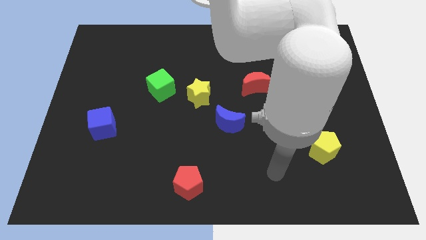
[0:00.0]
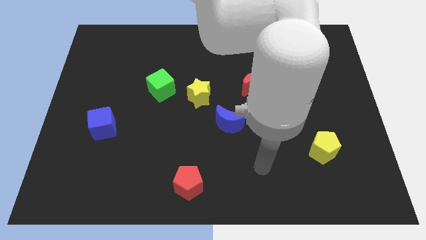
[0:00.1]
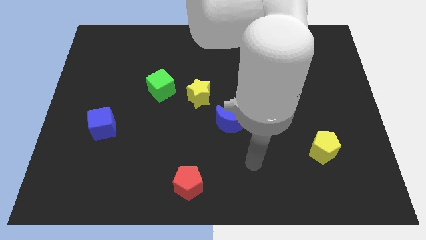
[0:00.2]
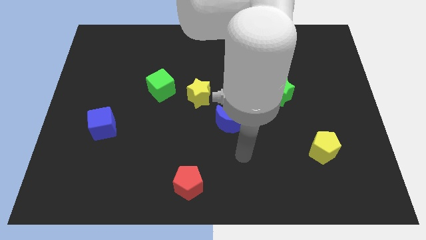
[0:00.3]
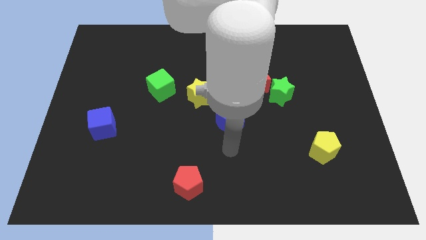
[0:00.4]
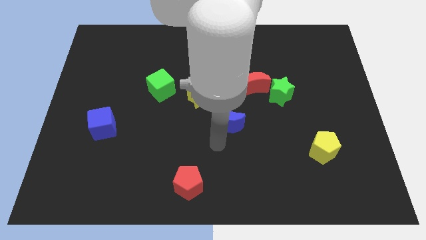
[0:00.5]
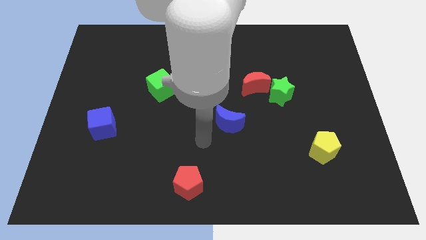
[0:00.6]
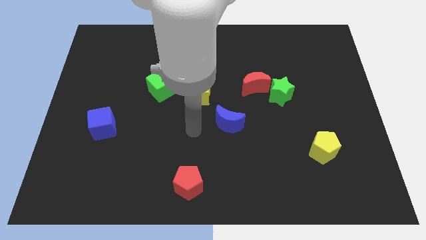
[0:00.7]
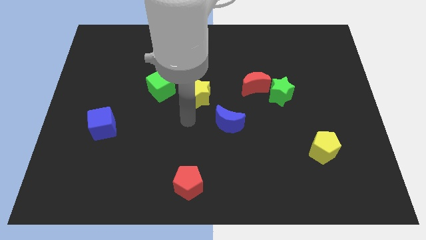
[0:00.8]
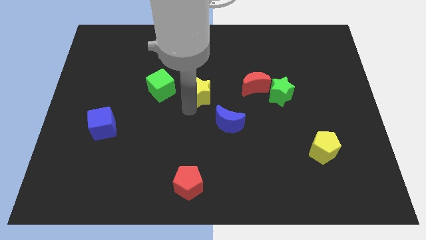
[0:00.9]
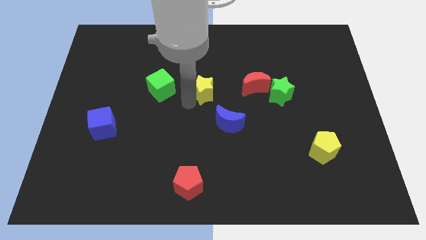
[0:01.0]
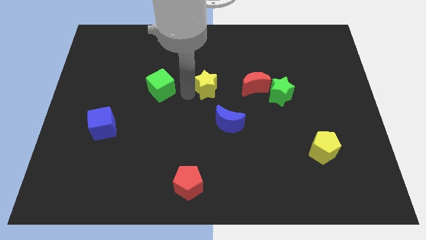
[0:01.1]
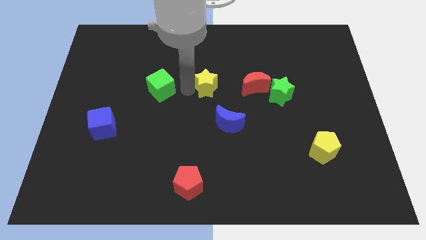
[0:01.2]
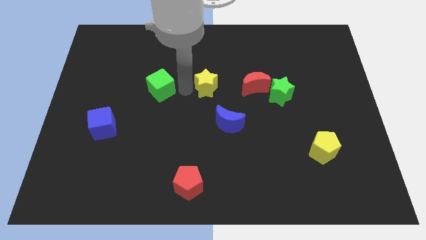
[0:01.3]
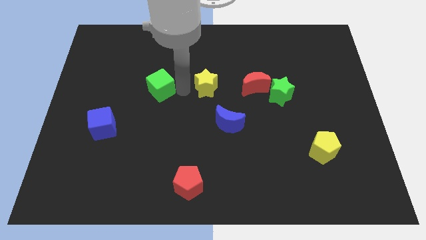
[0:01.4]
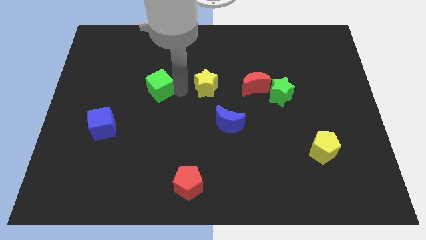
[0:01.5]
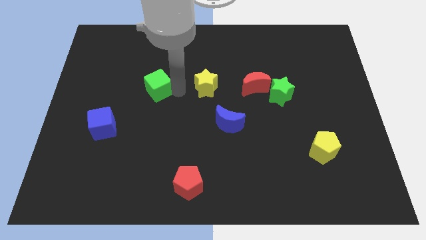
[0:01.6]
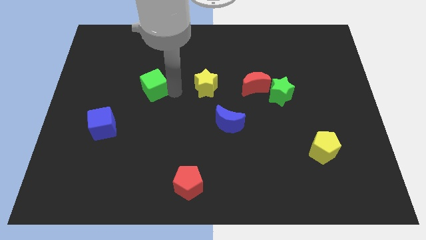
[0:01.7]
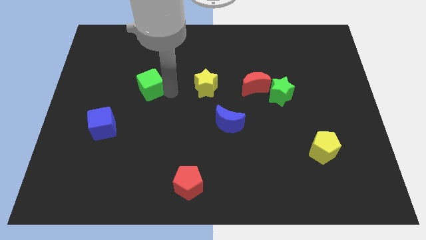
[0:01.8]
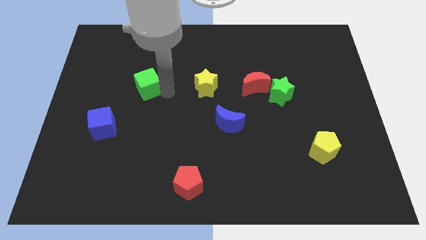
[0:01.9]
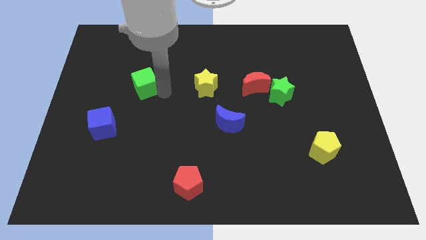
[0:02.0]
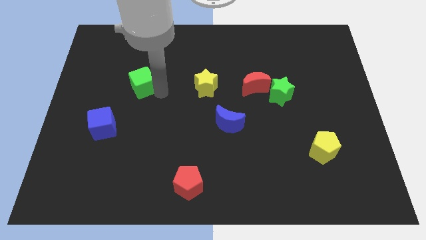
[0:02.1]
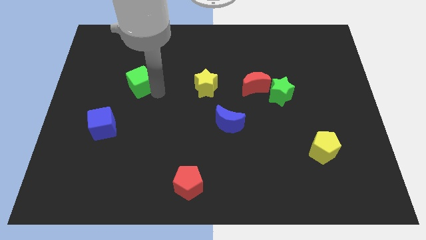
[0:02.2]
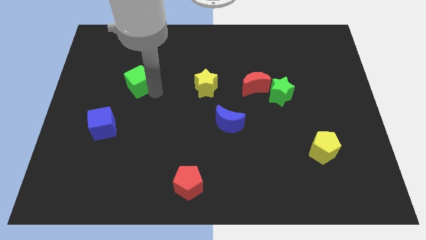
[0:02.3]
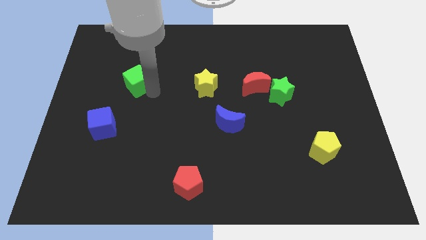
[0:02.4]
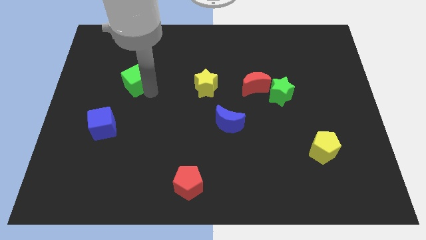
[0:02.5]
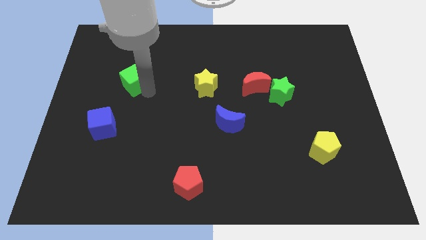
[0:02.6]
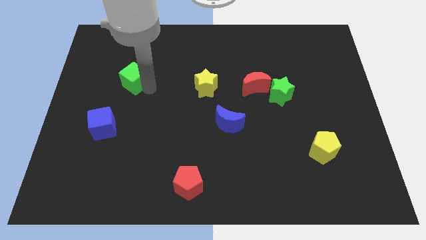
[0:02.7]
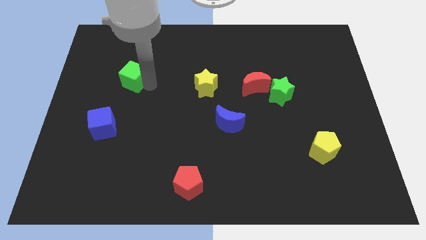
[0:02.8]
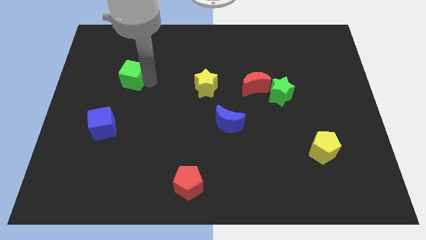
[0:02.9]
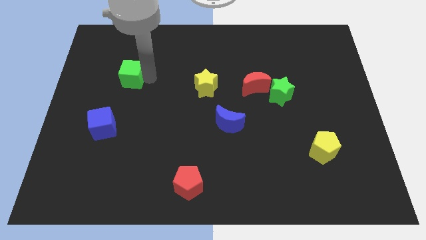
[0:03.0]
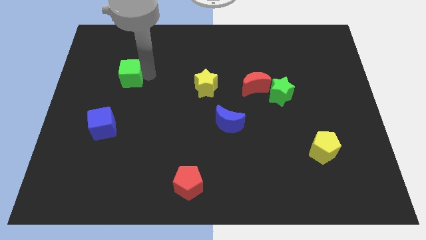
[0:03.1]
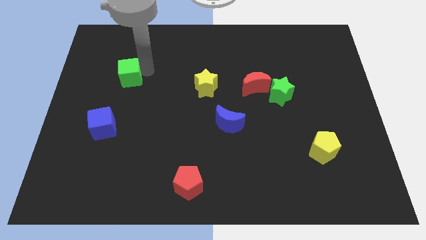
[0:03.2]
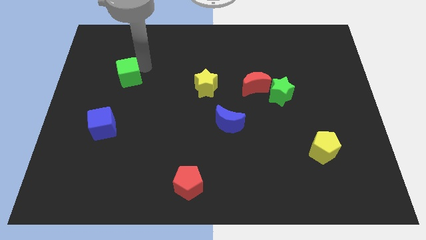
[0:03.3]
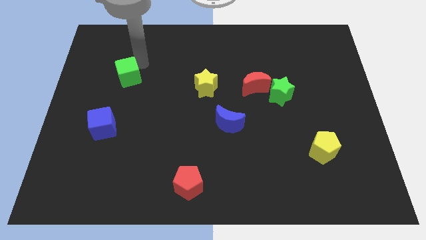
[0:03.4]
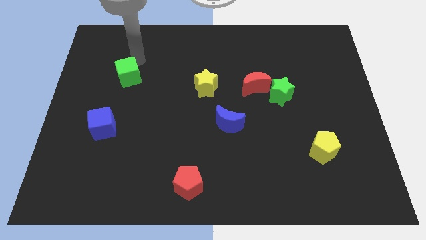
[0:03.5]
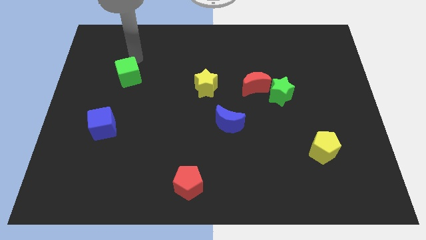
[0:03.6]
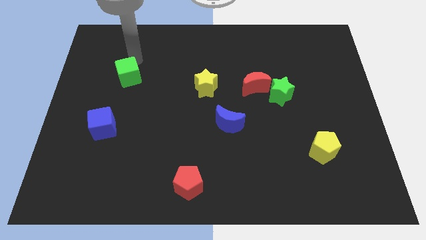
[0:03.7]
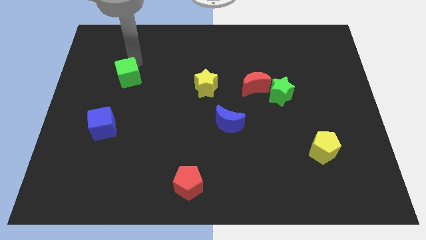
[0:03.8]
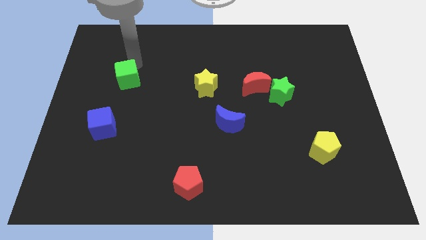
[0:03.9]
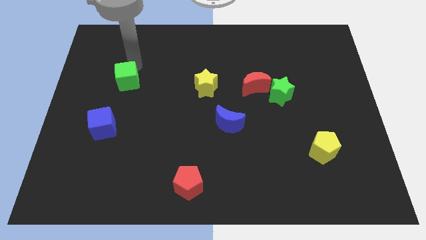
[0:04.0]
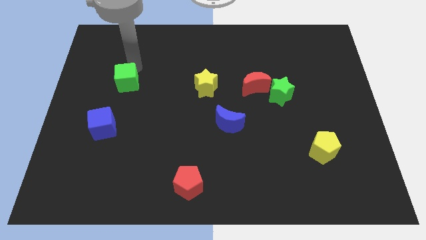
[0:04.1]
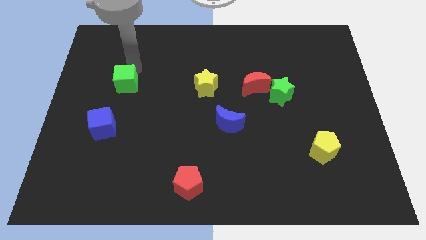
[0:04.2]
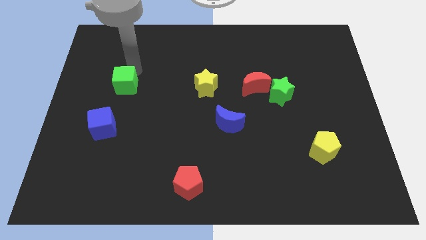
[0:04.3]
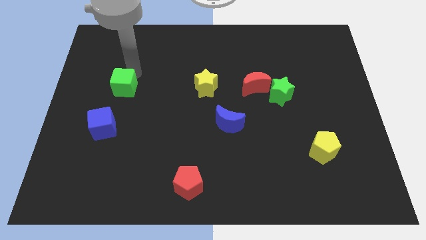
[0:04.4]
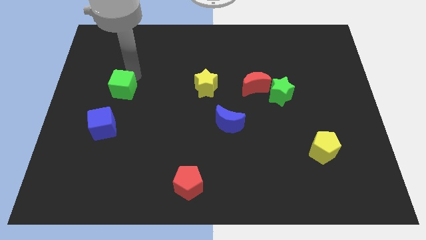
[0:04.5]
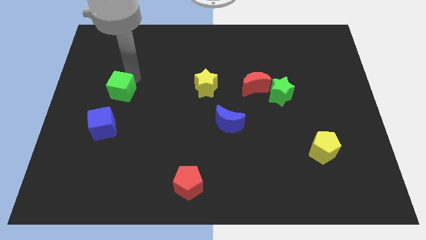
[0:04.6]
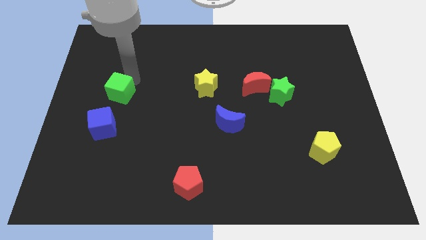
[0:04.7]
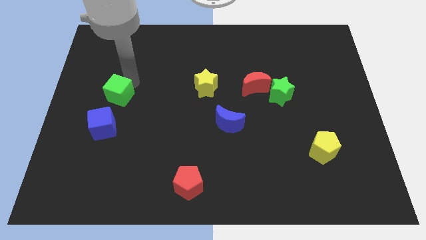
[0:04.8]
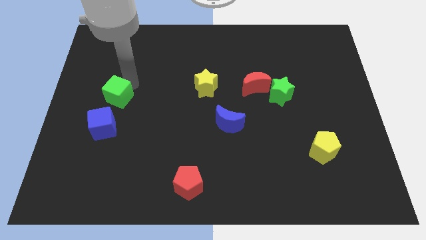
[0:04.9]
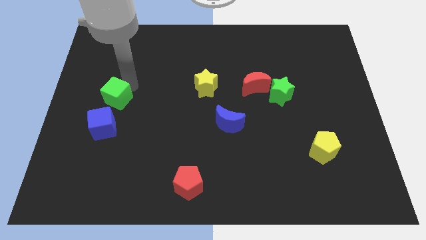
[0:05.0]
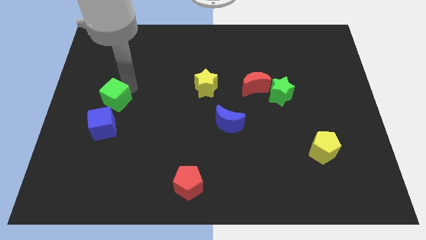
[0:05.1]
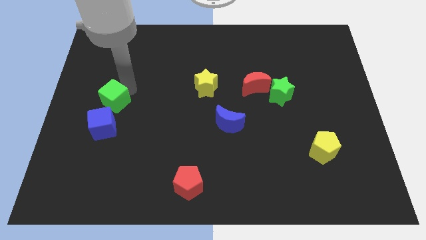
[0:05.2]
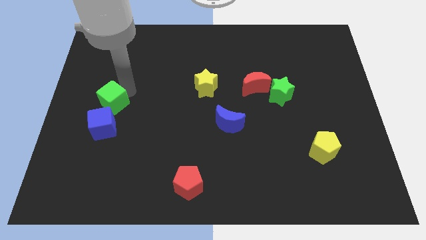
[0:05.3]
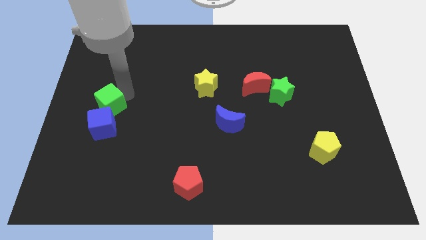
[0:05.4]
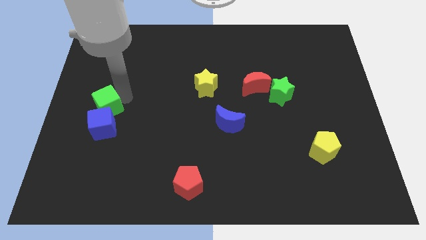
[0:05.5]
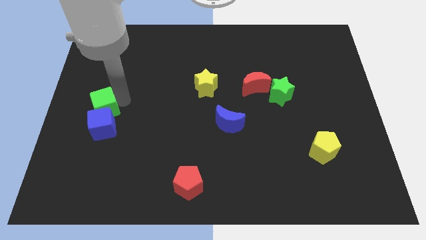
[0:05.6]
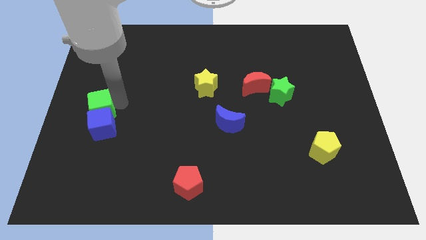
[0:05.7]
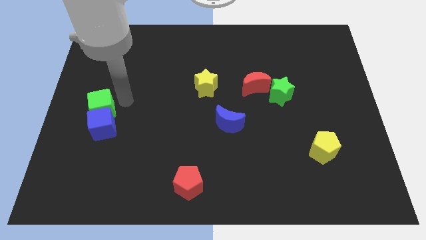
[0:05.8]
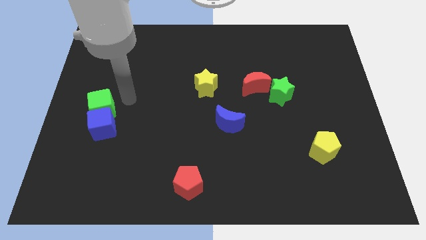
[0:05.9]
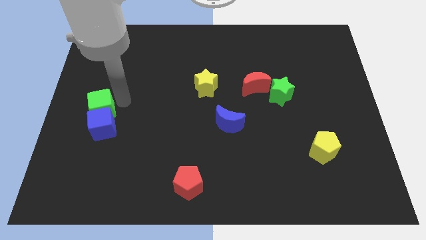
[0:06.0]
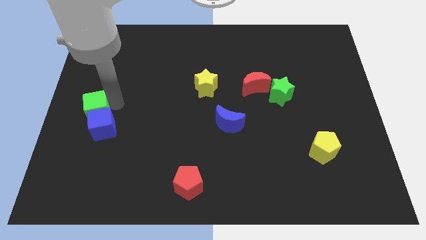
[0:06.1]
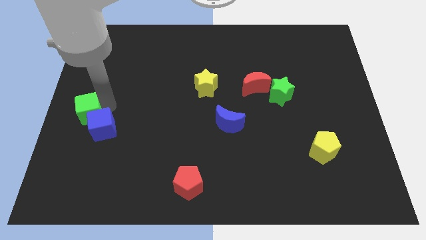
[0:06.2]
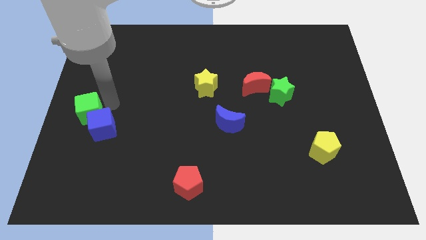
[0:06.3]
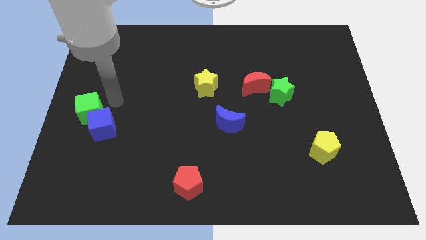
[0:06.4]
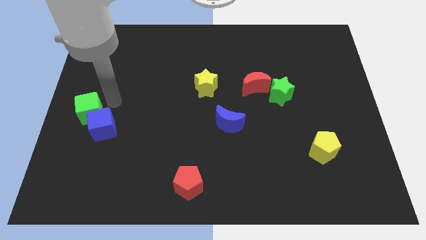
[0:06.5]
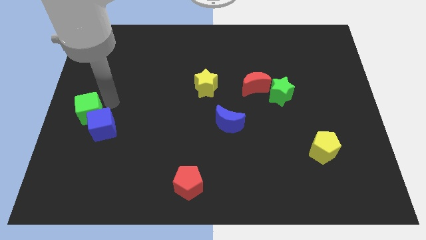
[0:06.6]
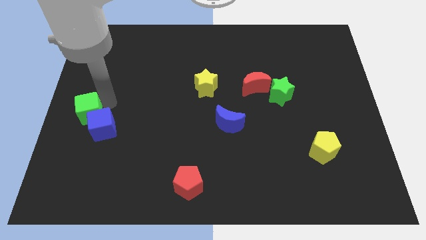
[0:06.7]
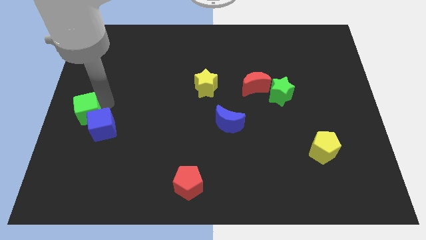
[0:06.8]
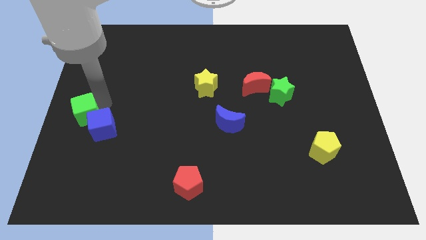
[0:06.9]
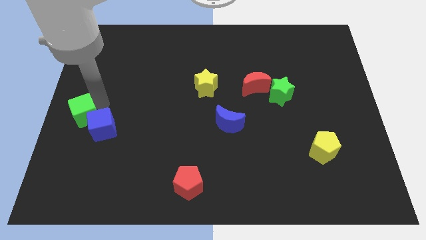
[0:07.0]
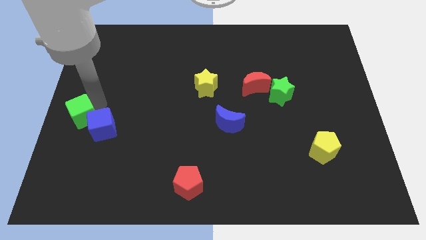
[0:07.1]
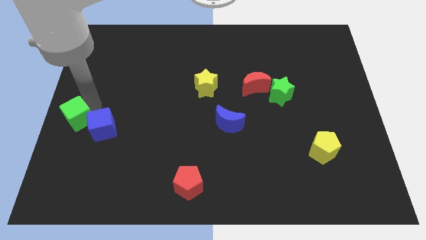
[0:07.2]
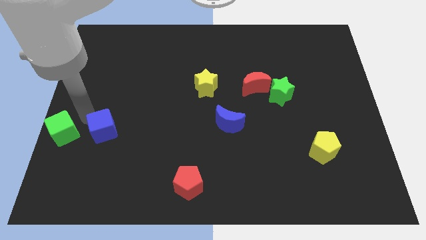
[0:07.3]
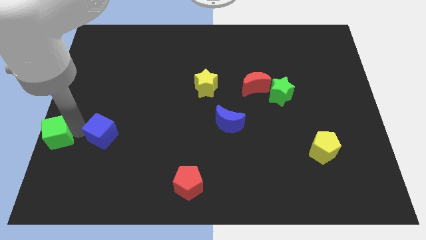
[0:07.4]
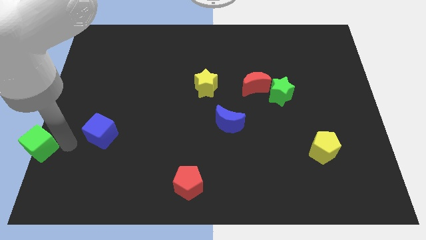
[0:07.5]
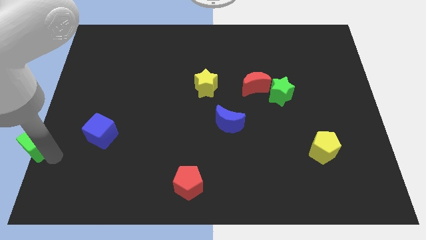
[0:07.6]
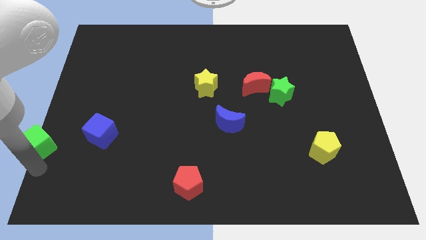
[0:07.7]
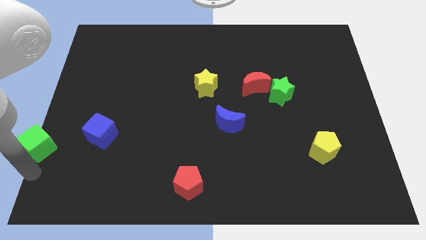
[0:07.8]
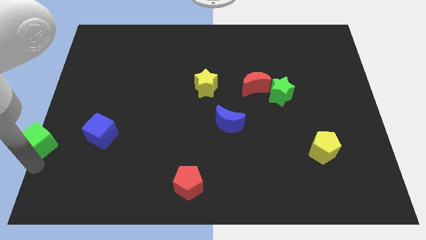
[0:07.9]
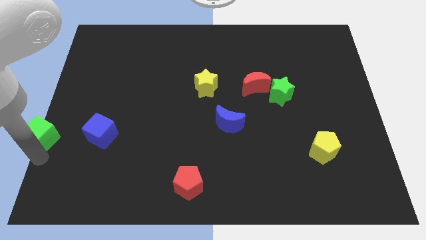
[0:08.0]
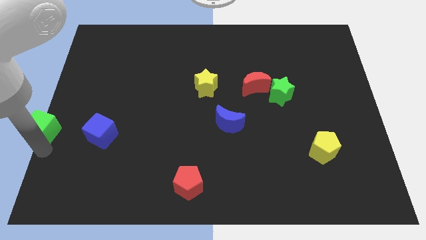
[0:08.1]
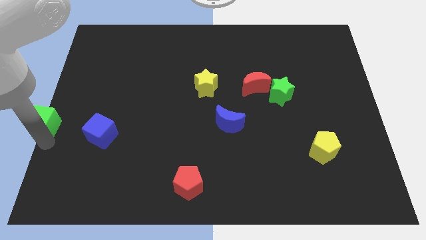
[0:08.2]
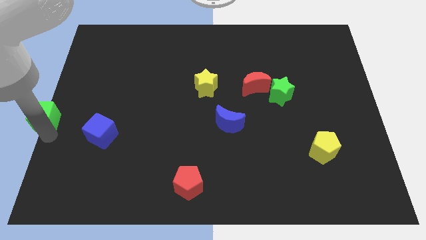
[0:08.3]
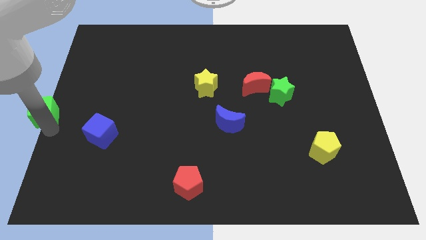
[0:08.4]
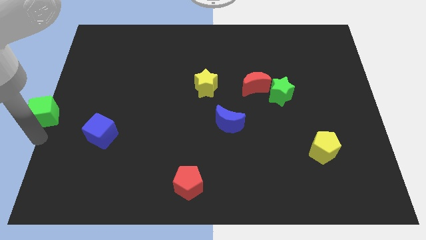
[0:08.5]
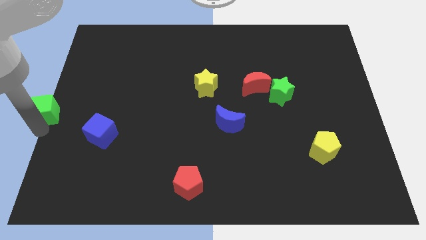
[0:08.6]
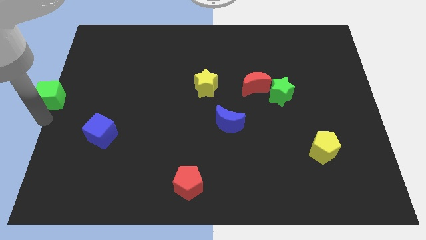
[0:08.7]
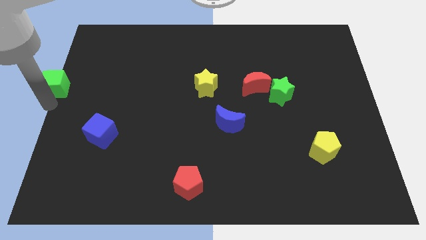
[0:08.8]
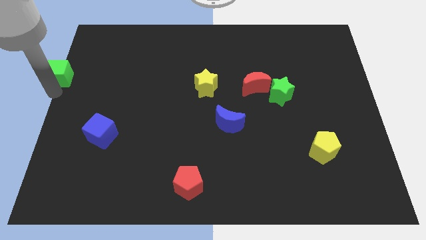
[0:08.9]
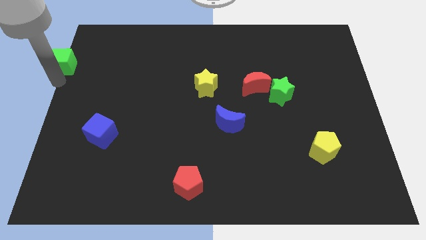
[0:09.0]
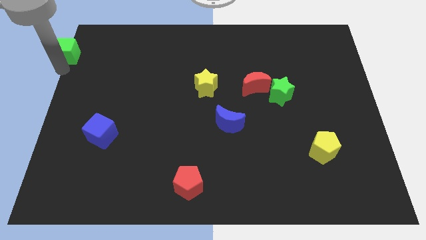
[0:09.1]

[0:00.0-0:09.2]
put the green cube to the upper left corner
